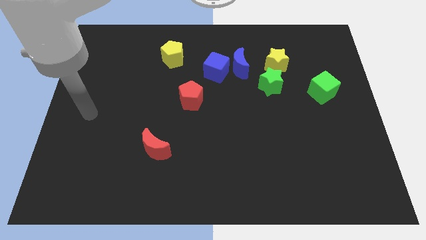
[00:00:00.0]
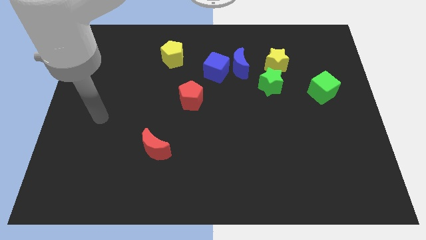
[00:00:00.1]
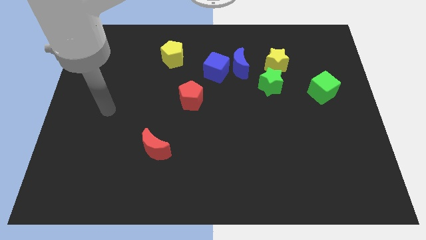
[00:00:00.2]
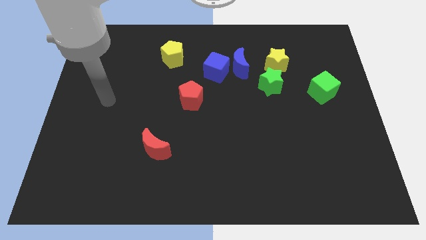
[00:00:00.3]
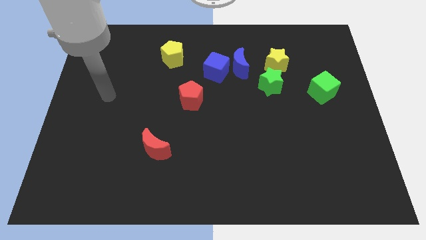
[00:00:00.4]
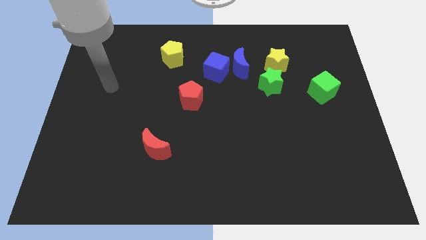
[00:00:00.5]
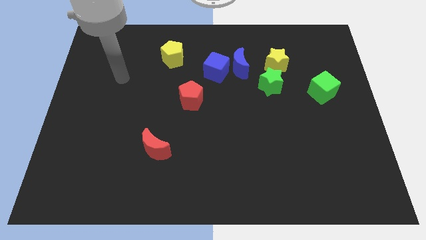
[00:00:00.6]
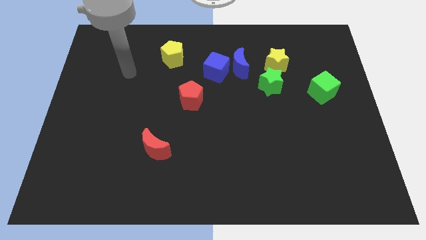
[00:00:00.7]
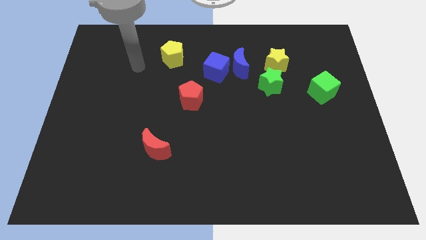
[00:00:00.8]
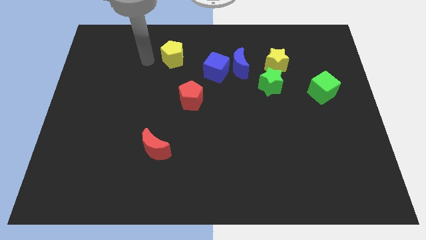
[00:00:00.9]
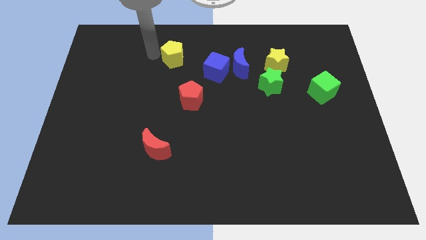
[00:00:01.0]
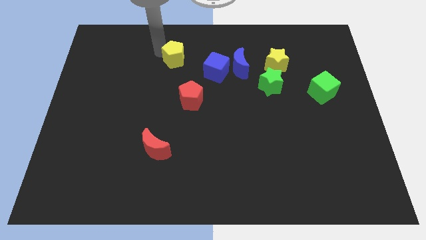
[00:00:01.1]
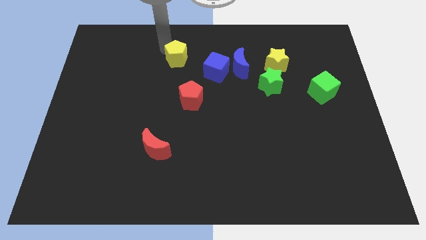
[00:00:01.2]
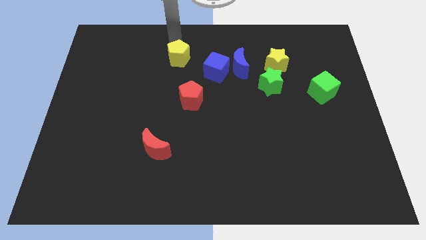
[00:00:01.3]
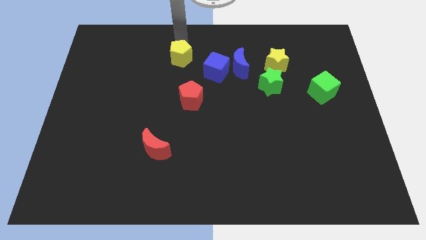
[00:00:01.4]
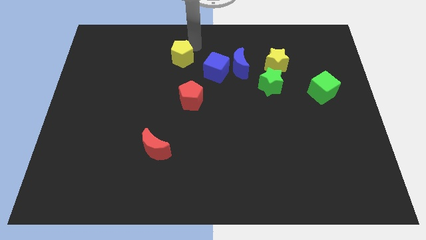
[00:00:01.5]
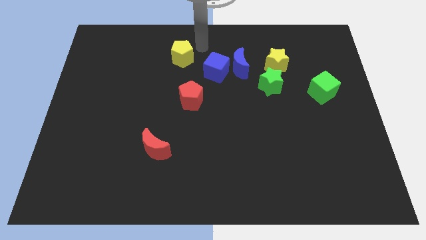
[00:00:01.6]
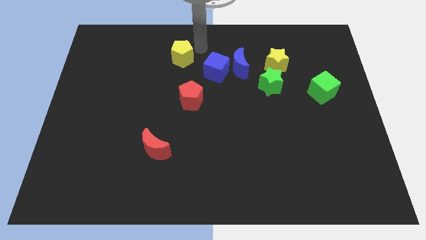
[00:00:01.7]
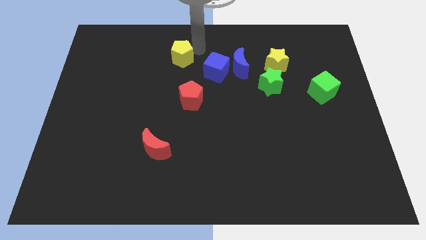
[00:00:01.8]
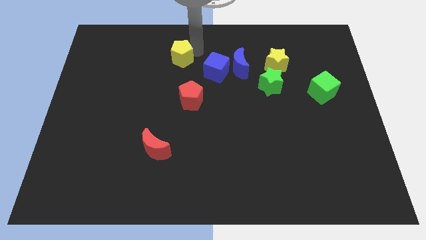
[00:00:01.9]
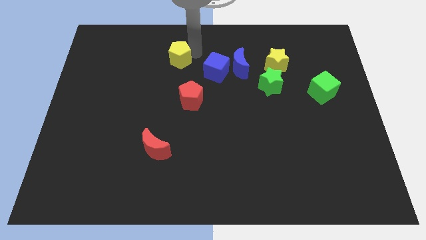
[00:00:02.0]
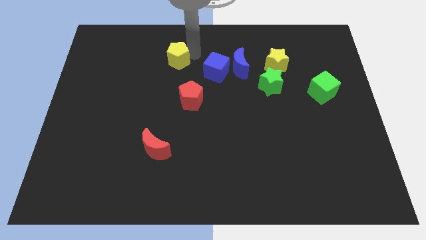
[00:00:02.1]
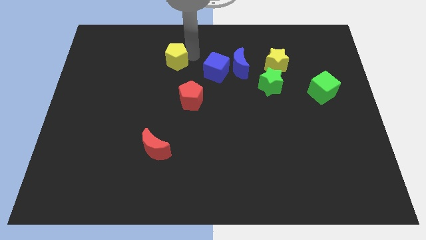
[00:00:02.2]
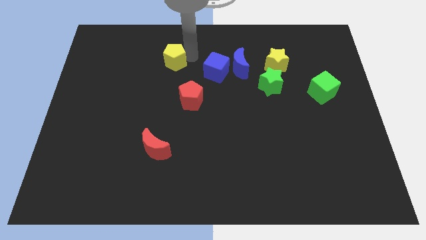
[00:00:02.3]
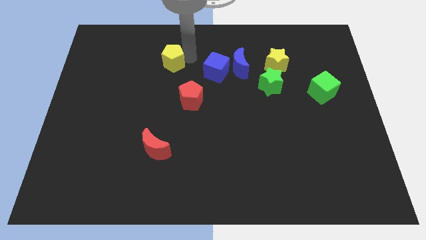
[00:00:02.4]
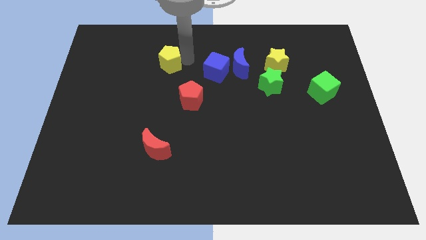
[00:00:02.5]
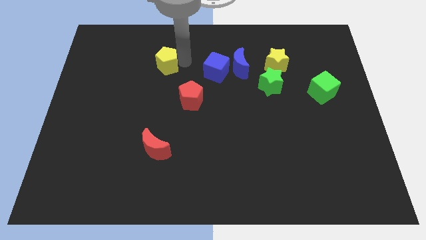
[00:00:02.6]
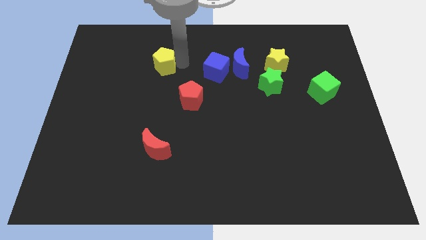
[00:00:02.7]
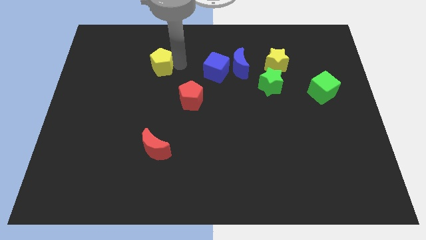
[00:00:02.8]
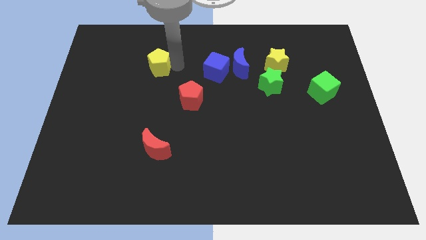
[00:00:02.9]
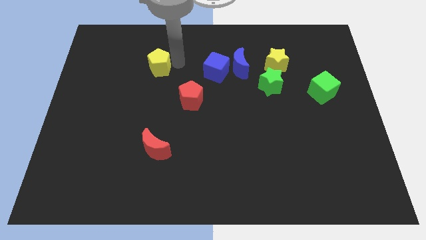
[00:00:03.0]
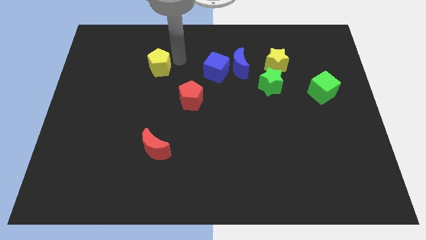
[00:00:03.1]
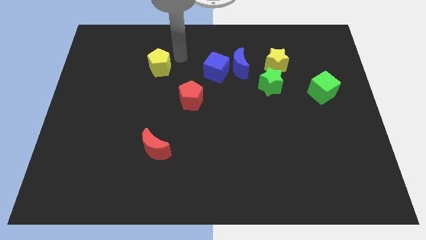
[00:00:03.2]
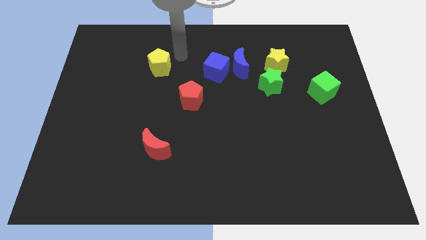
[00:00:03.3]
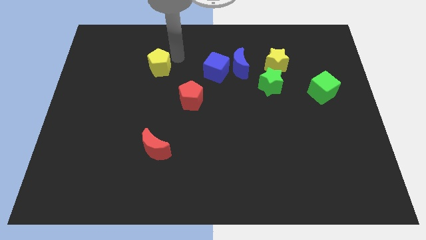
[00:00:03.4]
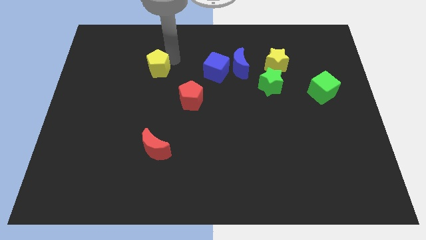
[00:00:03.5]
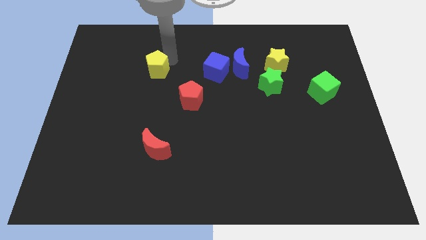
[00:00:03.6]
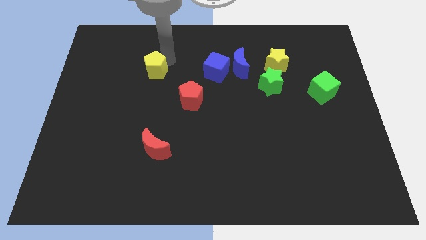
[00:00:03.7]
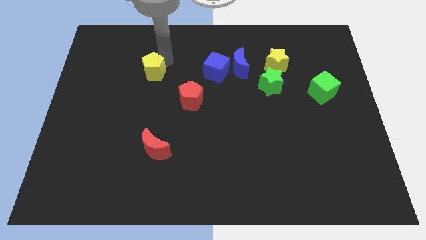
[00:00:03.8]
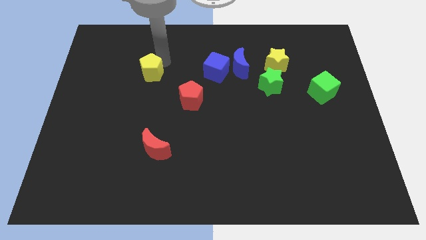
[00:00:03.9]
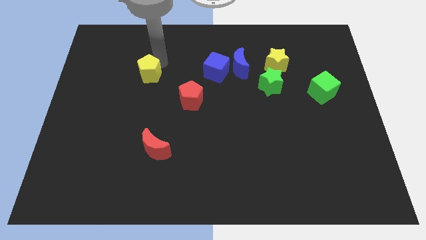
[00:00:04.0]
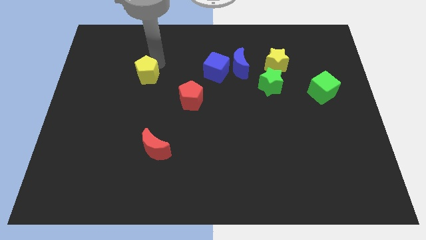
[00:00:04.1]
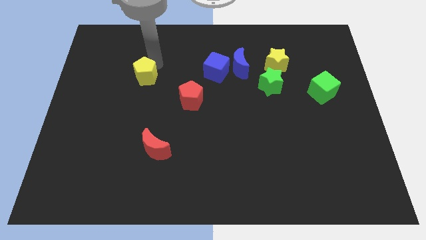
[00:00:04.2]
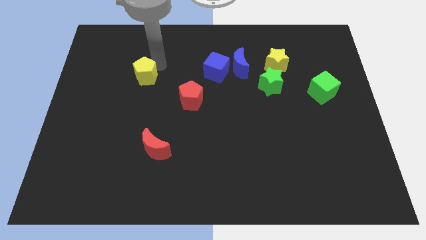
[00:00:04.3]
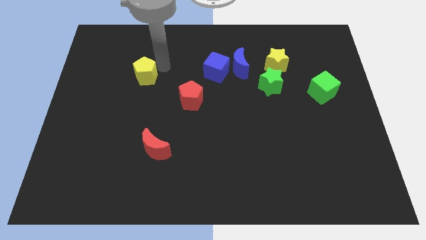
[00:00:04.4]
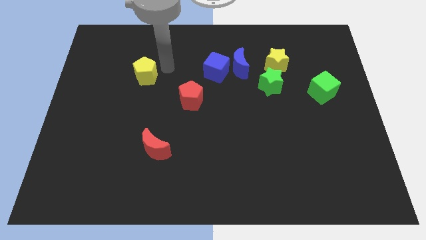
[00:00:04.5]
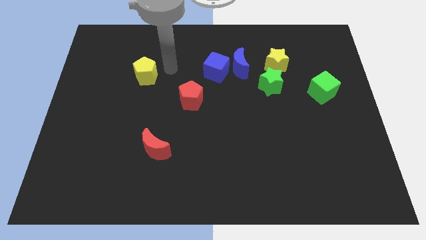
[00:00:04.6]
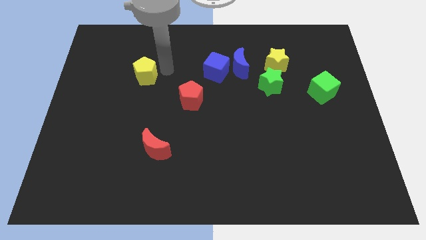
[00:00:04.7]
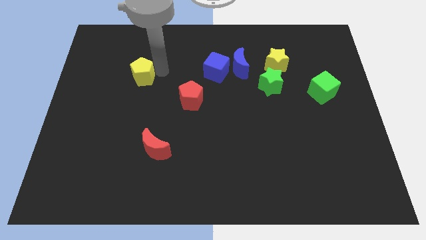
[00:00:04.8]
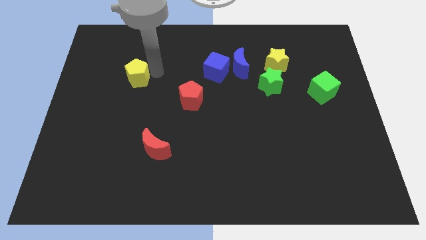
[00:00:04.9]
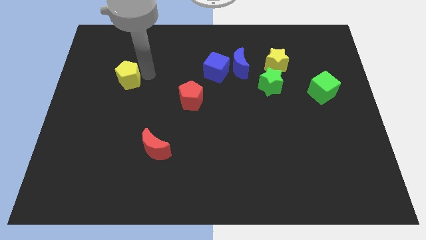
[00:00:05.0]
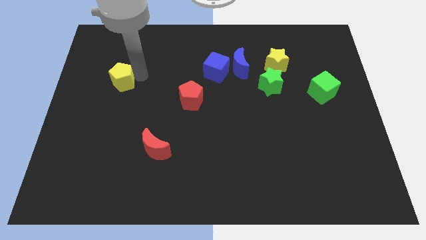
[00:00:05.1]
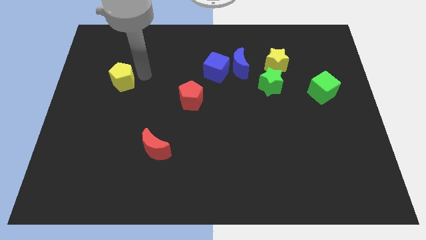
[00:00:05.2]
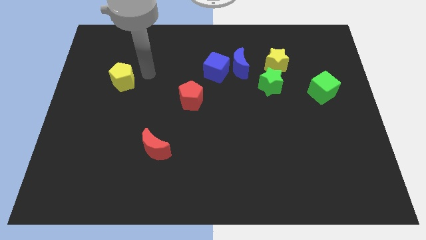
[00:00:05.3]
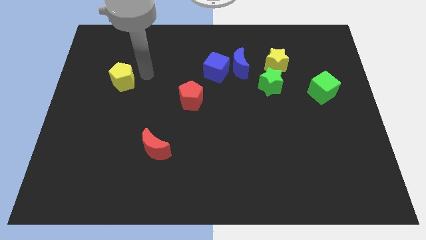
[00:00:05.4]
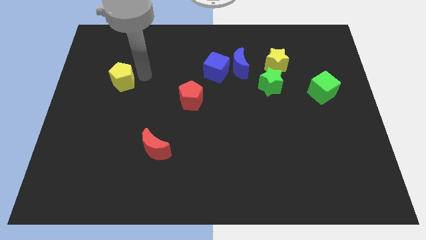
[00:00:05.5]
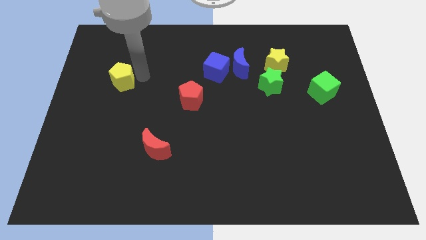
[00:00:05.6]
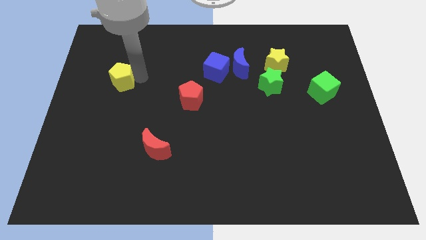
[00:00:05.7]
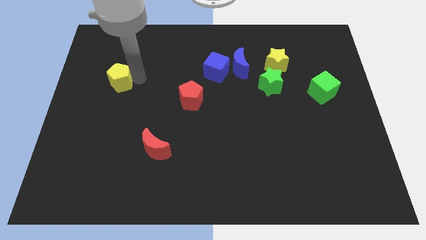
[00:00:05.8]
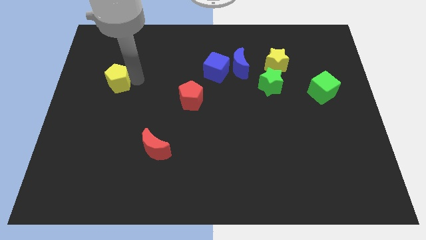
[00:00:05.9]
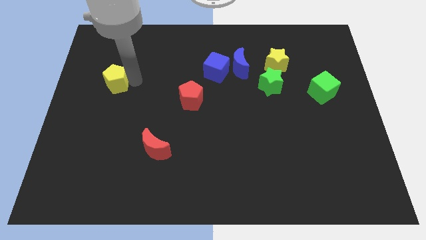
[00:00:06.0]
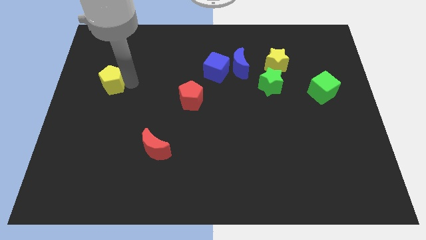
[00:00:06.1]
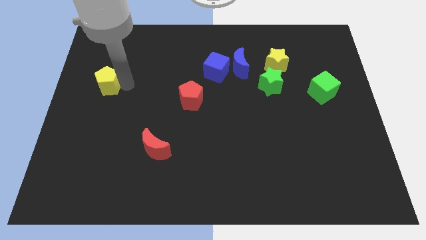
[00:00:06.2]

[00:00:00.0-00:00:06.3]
push the yellow pentagon to the center left
